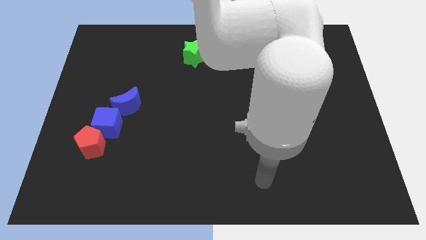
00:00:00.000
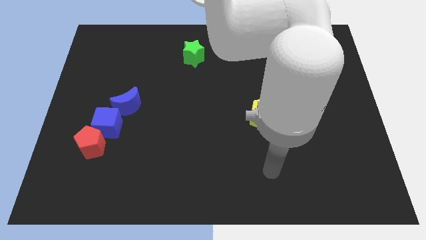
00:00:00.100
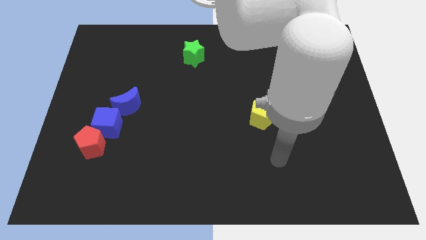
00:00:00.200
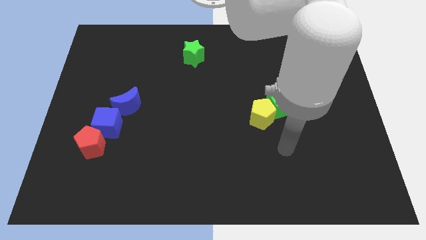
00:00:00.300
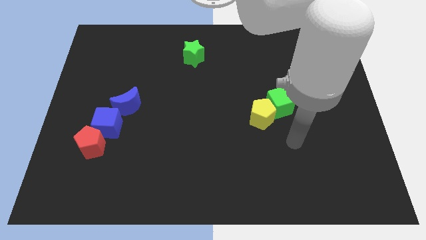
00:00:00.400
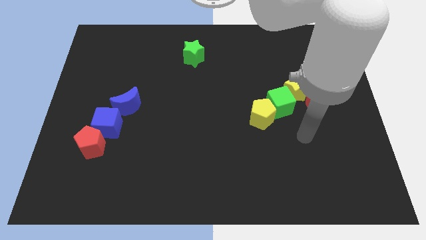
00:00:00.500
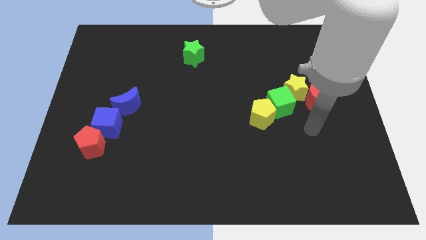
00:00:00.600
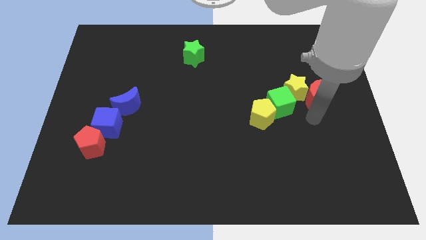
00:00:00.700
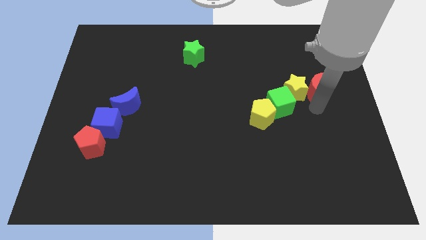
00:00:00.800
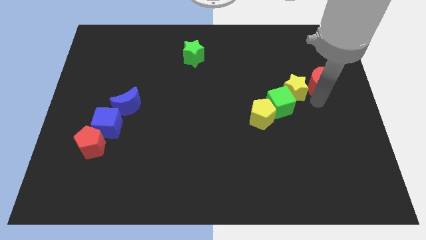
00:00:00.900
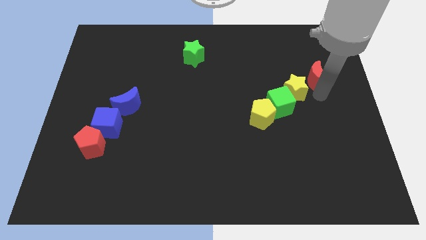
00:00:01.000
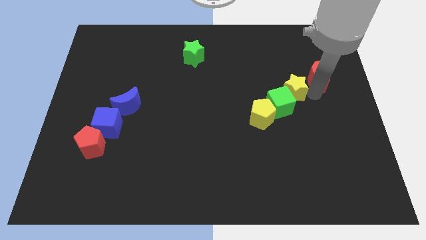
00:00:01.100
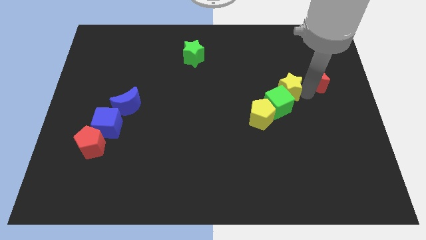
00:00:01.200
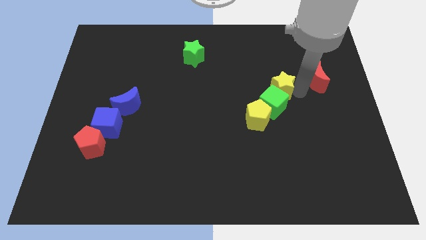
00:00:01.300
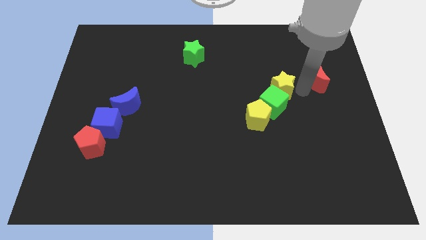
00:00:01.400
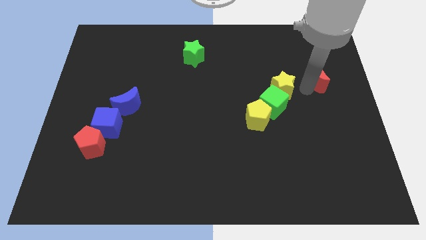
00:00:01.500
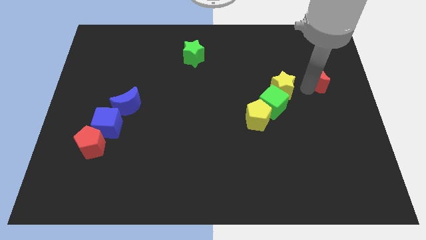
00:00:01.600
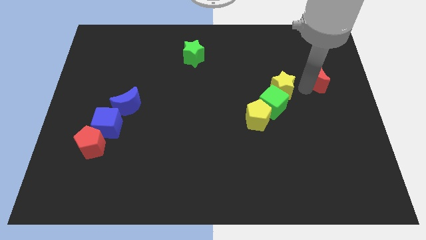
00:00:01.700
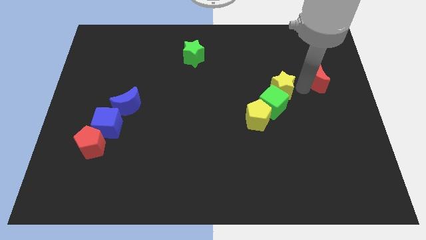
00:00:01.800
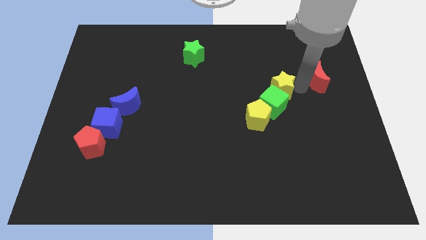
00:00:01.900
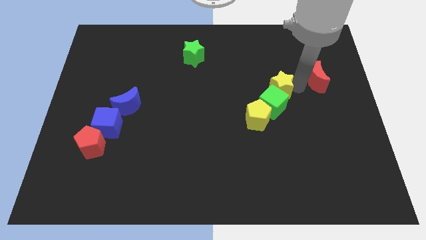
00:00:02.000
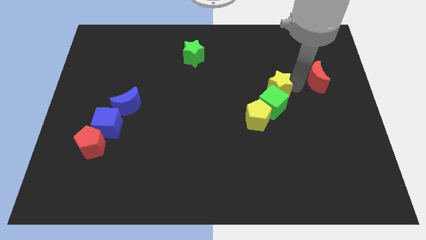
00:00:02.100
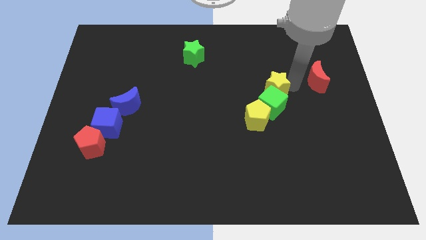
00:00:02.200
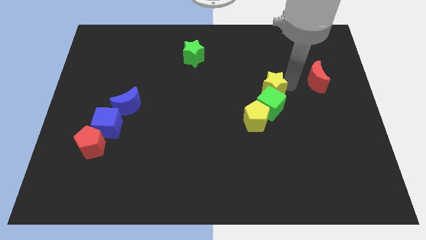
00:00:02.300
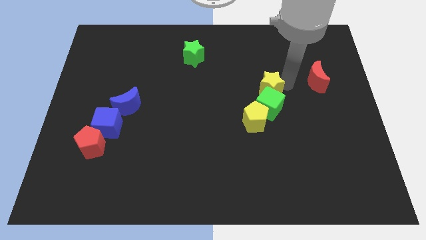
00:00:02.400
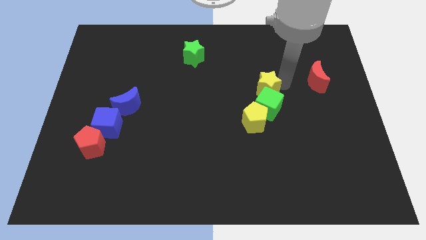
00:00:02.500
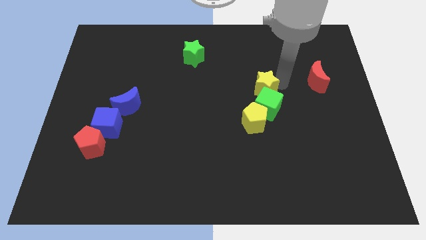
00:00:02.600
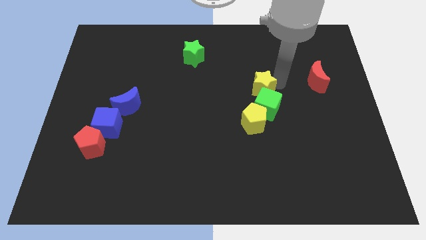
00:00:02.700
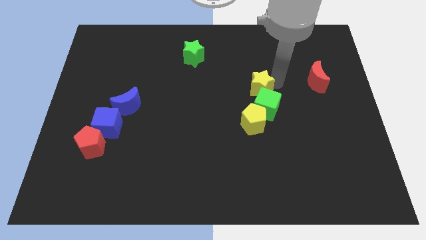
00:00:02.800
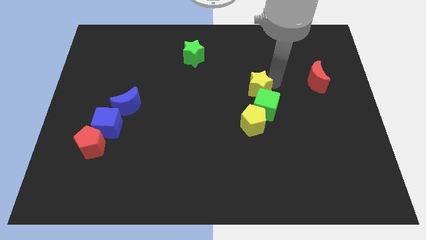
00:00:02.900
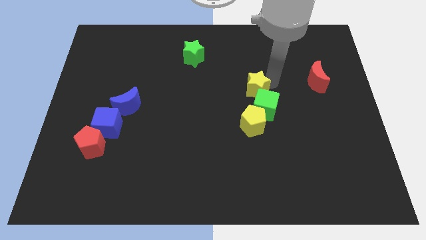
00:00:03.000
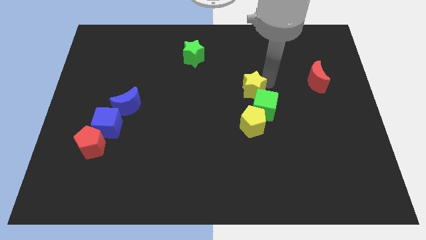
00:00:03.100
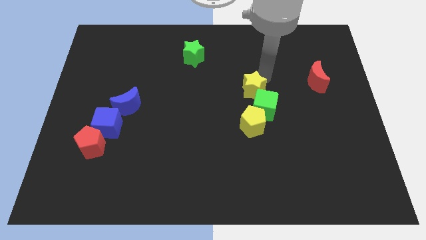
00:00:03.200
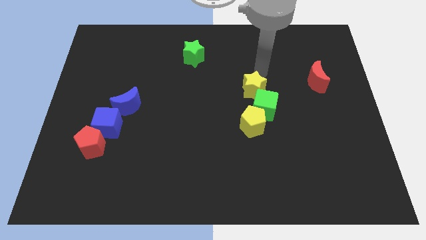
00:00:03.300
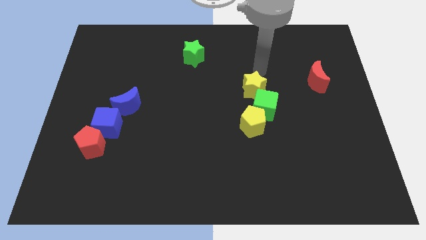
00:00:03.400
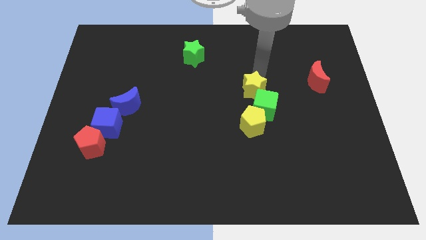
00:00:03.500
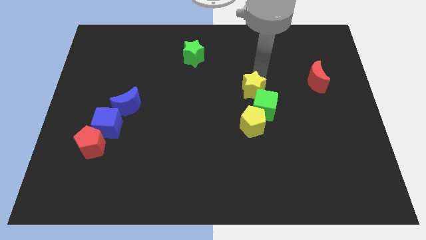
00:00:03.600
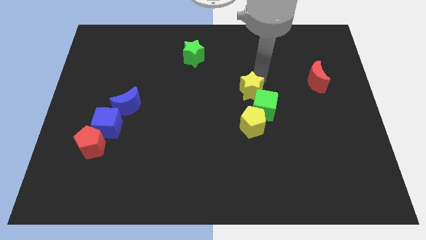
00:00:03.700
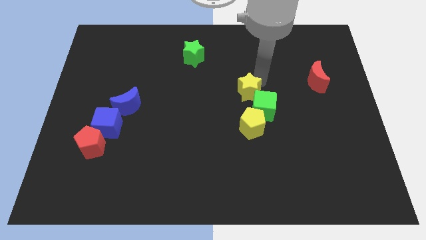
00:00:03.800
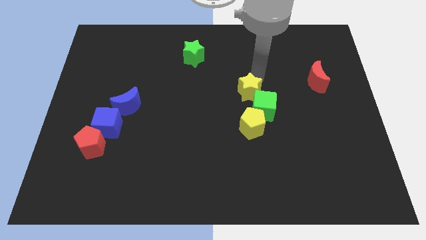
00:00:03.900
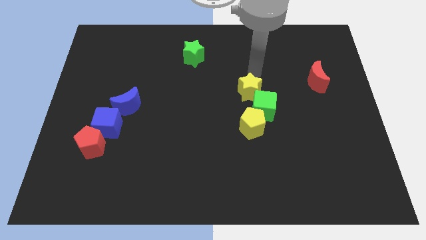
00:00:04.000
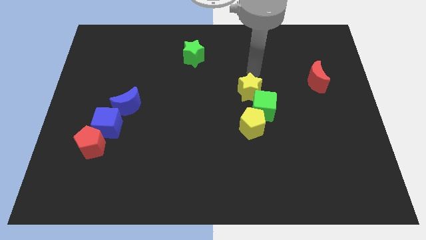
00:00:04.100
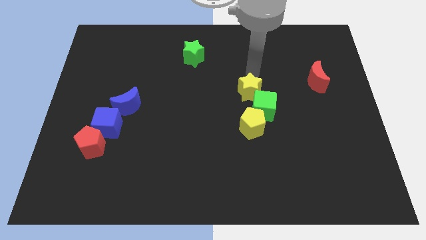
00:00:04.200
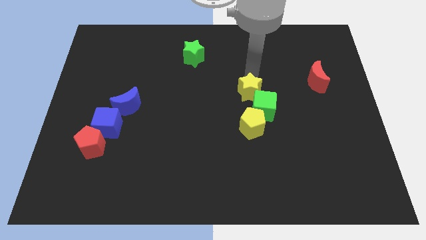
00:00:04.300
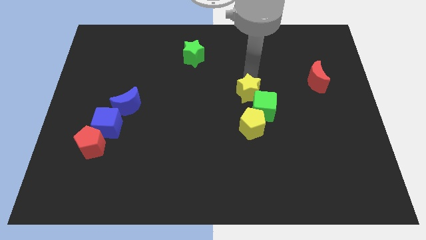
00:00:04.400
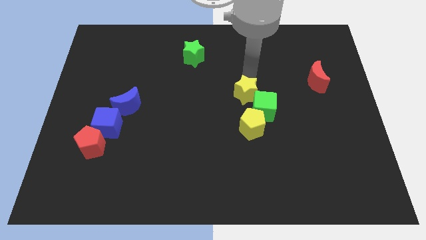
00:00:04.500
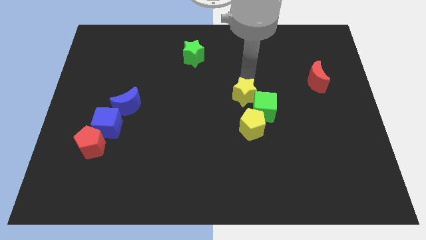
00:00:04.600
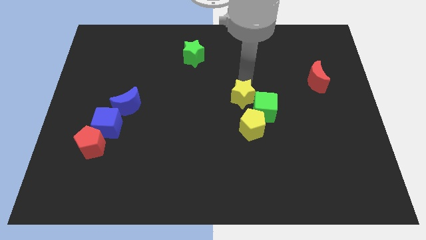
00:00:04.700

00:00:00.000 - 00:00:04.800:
move the yellow star diagonally down and left a little bit

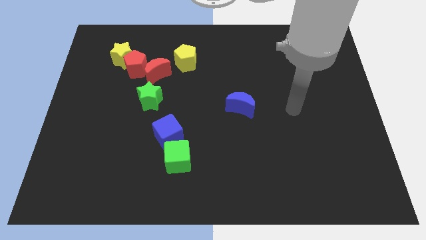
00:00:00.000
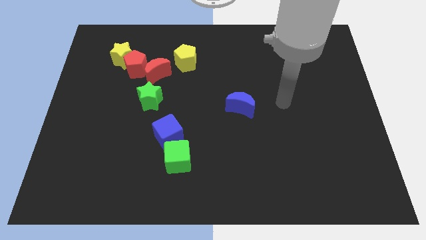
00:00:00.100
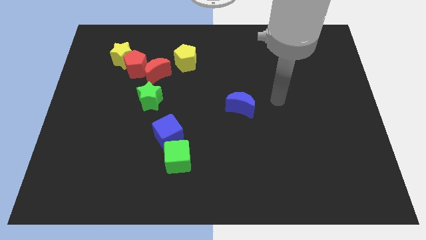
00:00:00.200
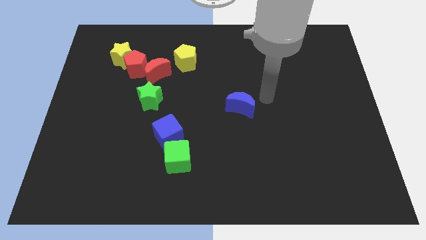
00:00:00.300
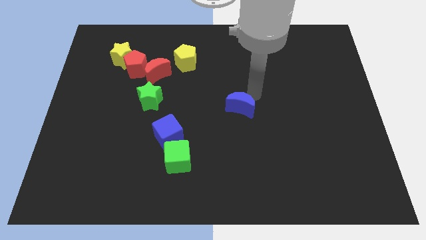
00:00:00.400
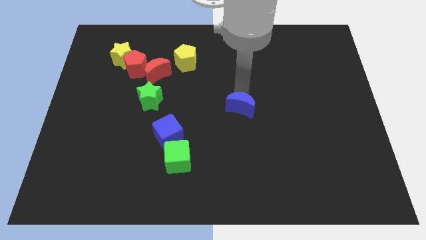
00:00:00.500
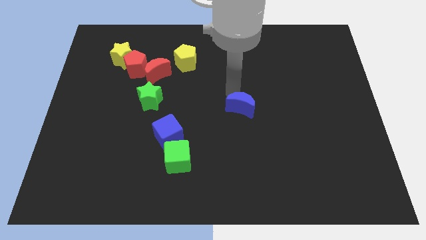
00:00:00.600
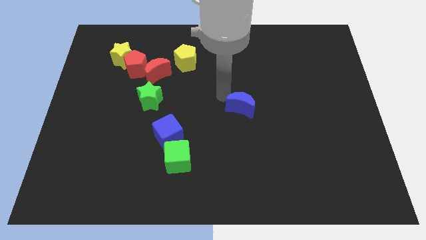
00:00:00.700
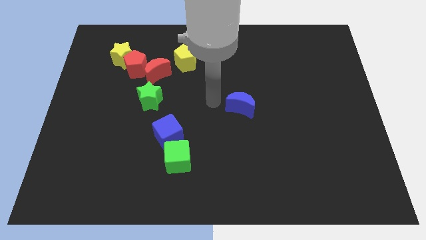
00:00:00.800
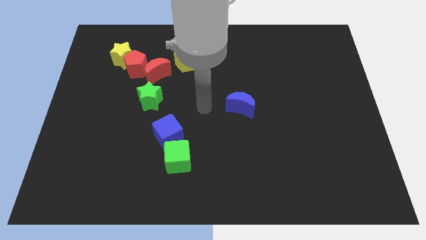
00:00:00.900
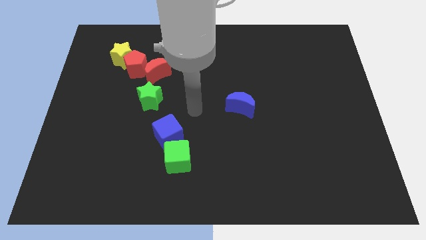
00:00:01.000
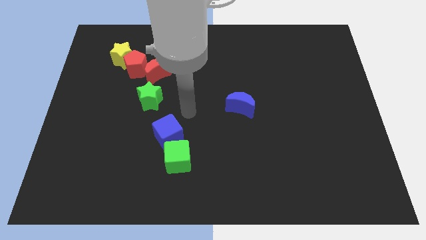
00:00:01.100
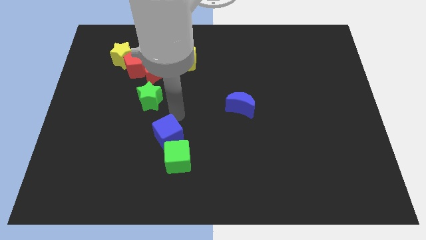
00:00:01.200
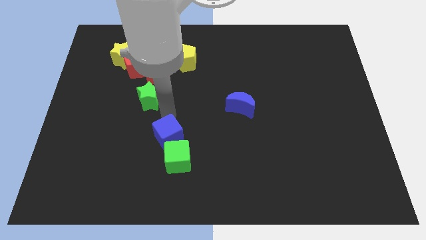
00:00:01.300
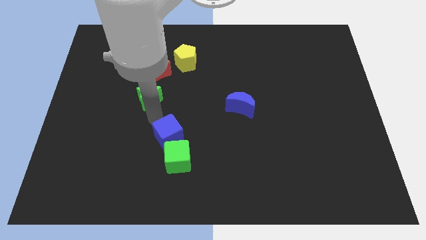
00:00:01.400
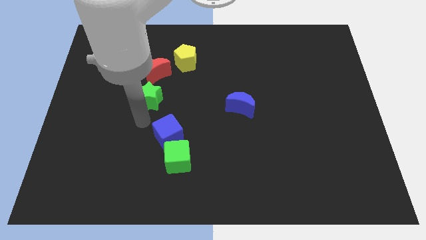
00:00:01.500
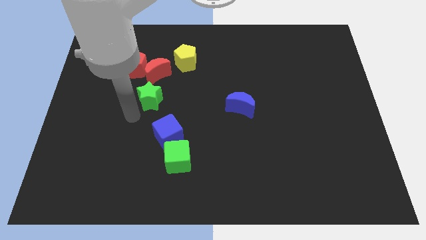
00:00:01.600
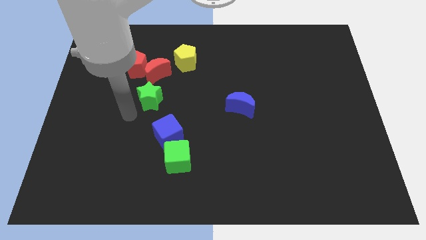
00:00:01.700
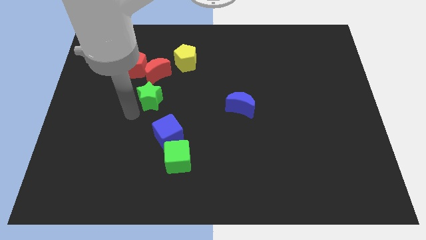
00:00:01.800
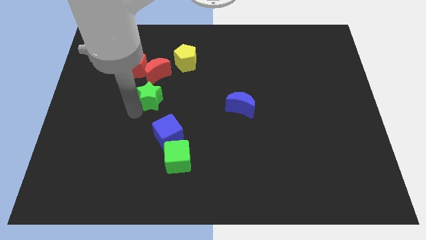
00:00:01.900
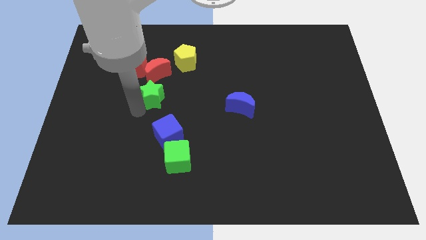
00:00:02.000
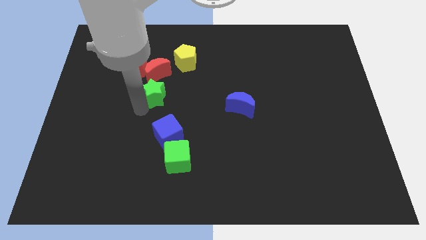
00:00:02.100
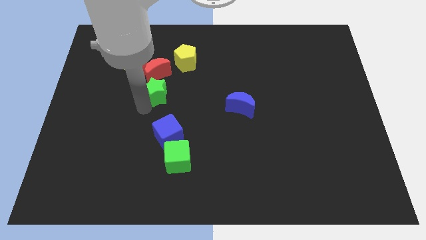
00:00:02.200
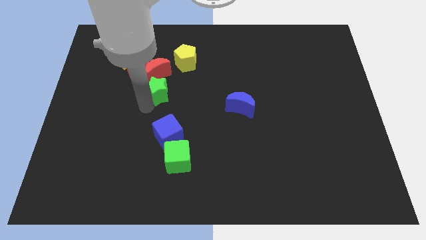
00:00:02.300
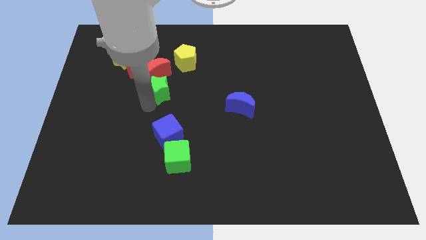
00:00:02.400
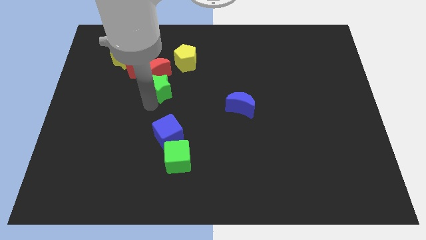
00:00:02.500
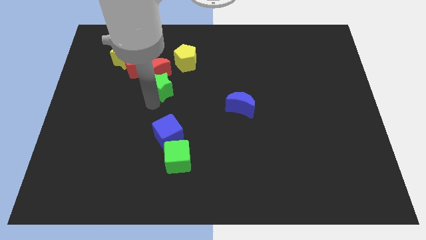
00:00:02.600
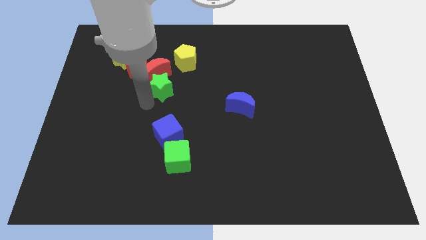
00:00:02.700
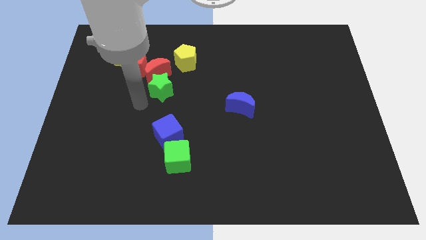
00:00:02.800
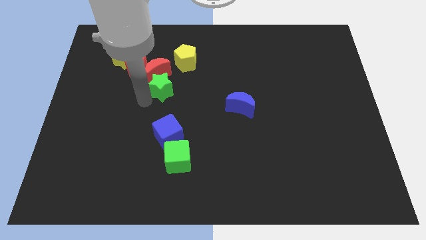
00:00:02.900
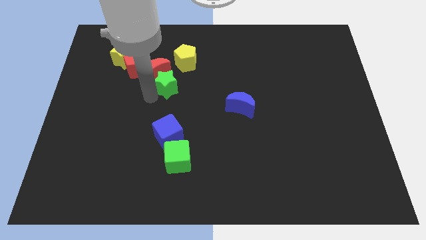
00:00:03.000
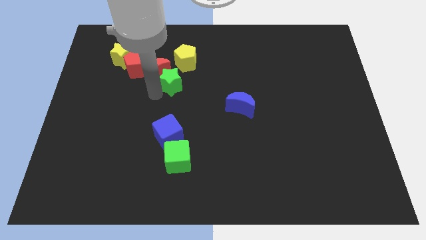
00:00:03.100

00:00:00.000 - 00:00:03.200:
slightly move the green star diagonally up and to the right

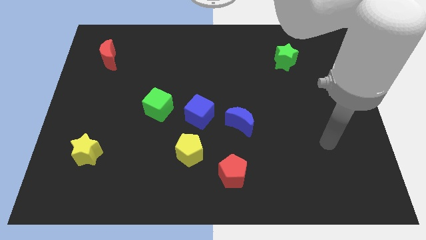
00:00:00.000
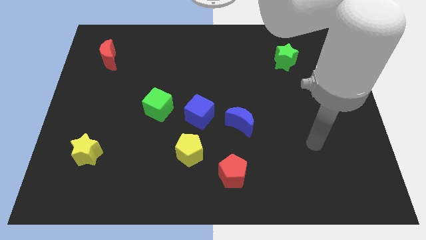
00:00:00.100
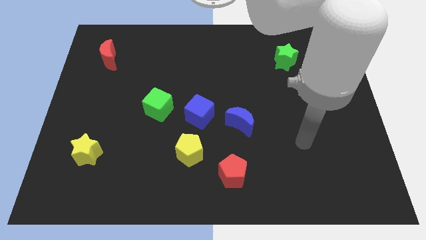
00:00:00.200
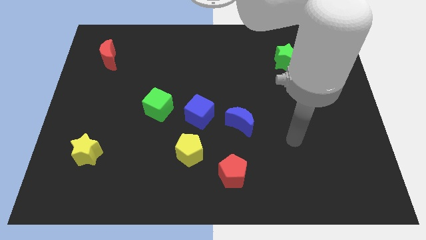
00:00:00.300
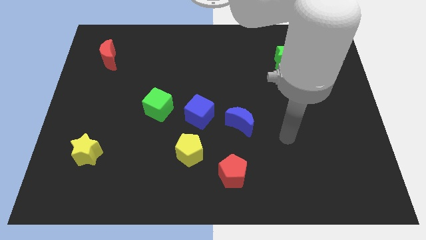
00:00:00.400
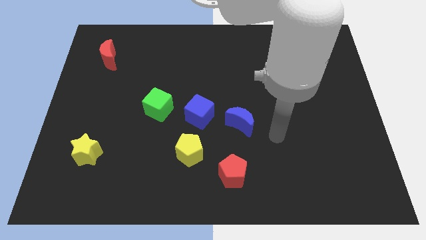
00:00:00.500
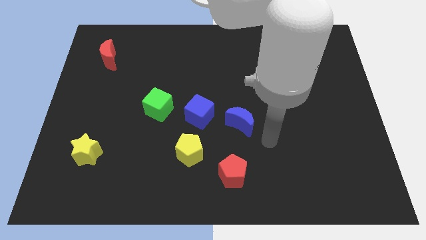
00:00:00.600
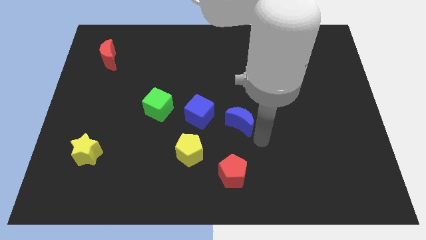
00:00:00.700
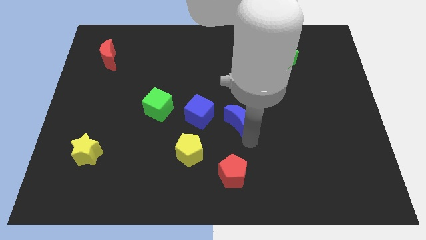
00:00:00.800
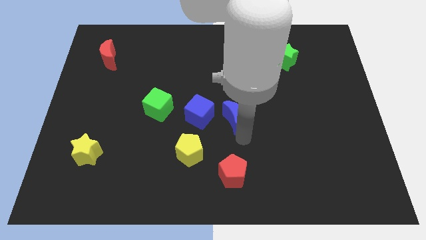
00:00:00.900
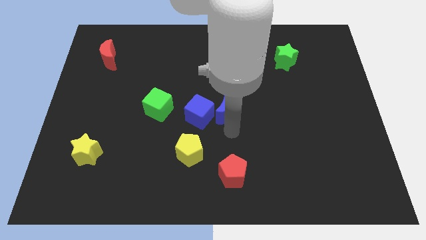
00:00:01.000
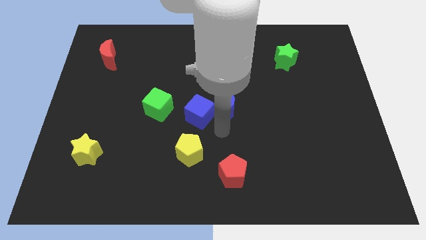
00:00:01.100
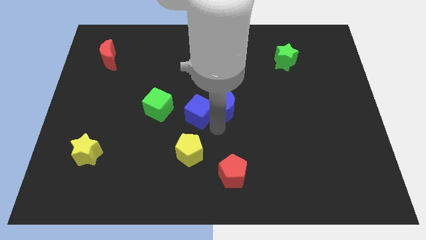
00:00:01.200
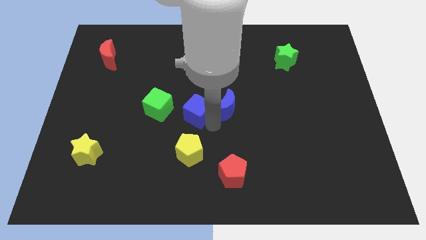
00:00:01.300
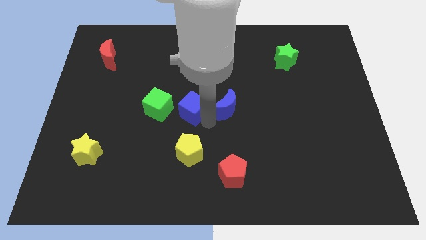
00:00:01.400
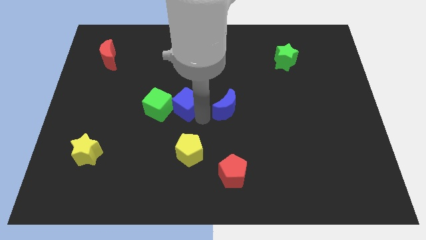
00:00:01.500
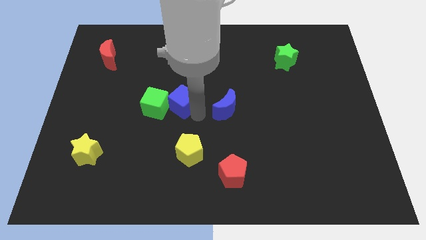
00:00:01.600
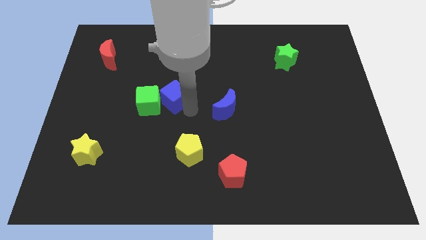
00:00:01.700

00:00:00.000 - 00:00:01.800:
move the blue cube a little upwards and then left
